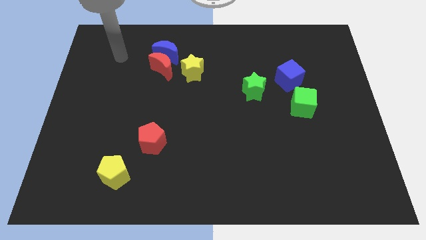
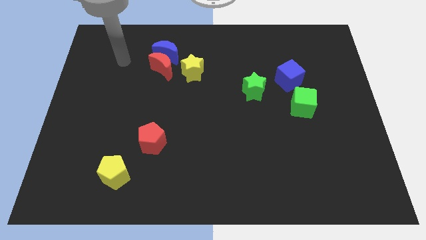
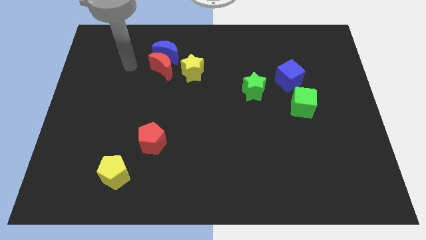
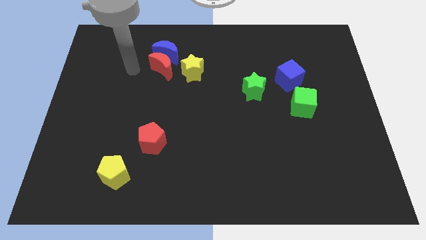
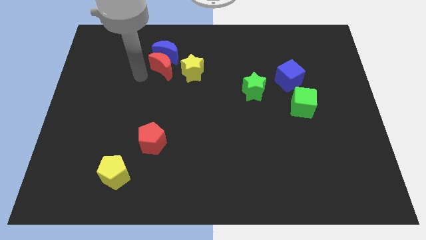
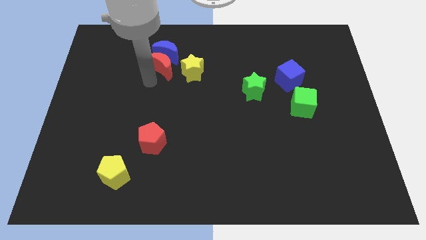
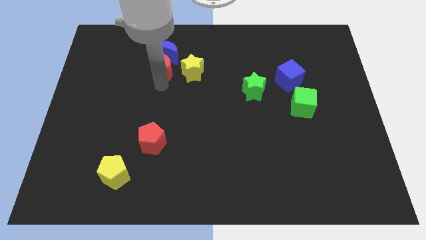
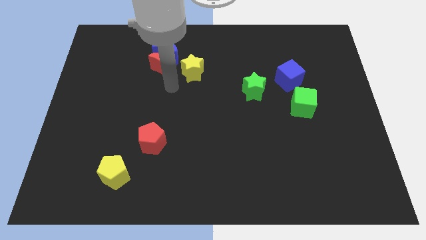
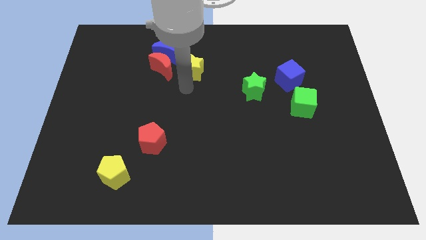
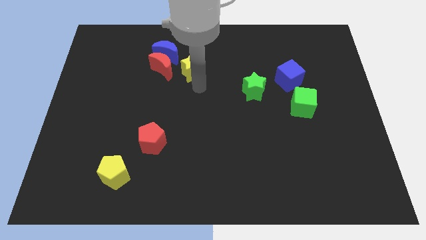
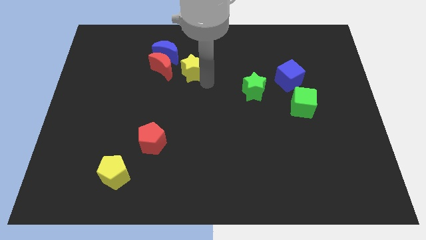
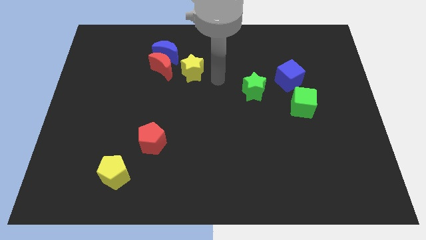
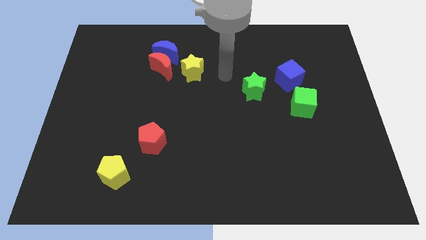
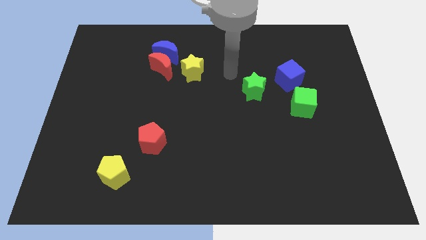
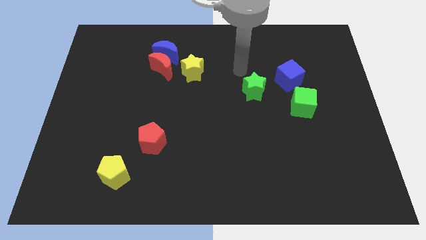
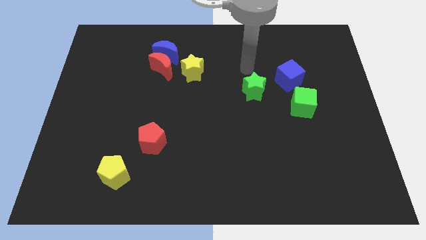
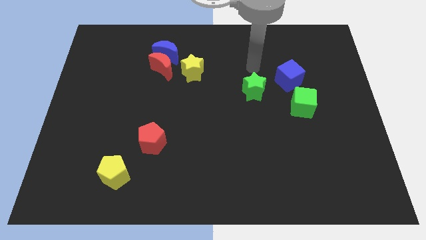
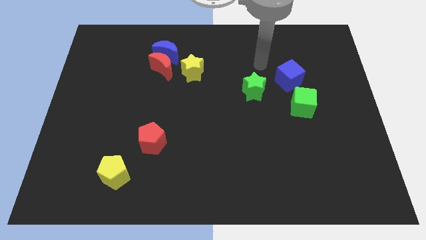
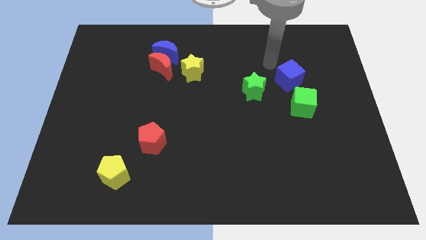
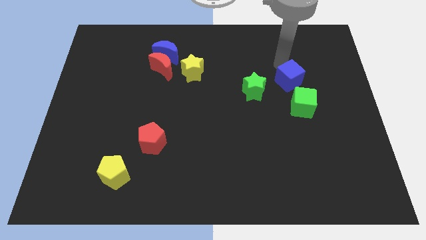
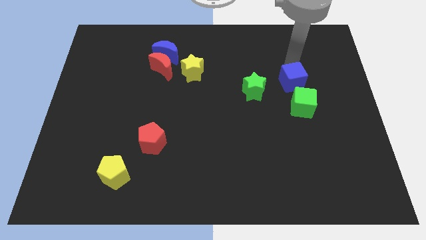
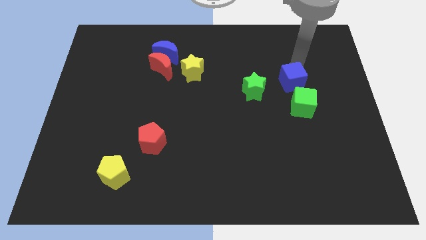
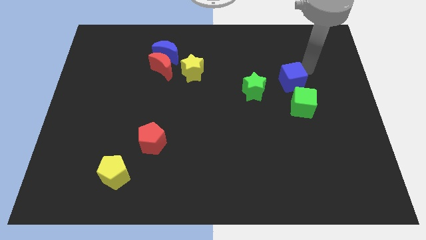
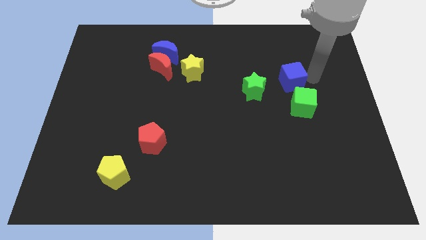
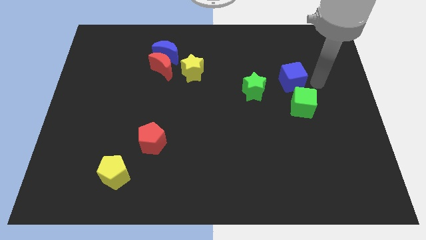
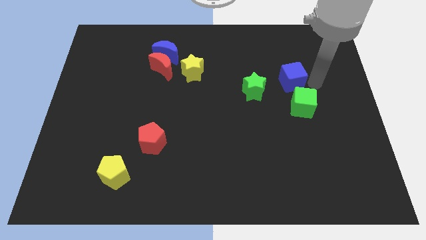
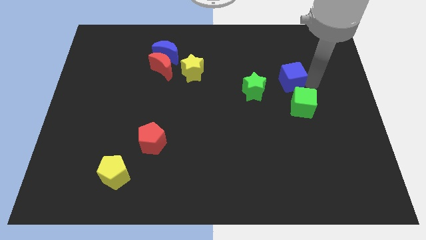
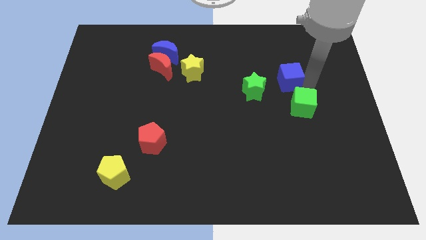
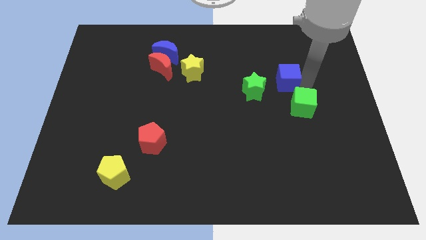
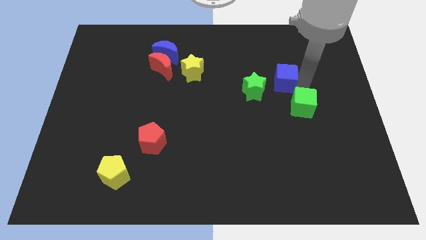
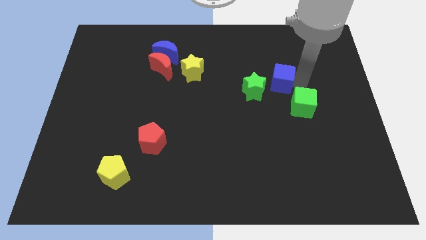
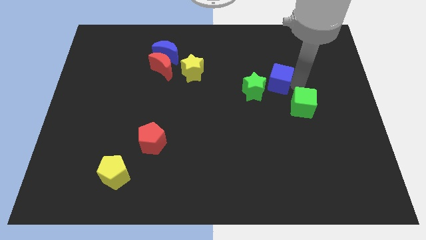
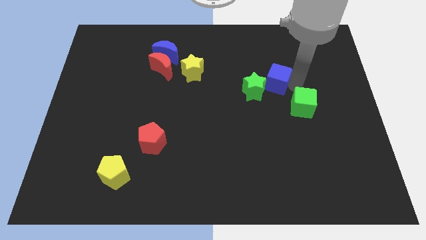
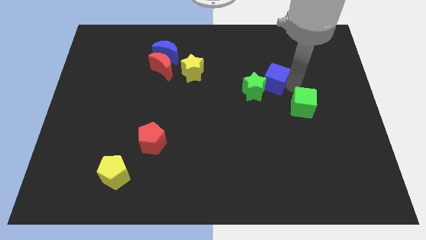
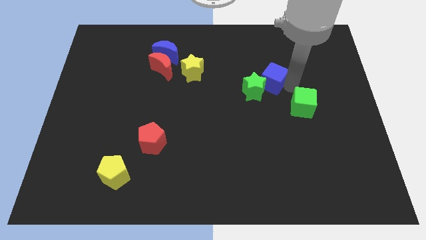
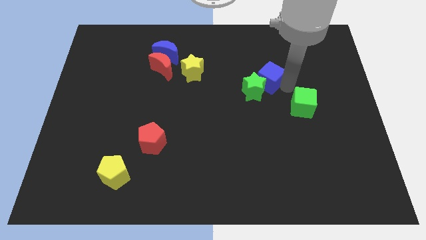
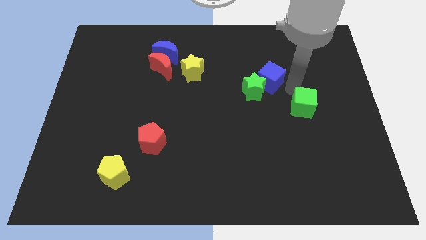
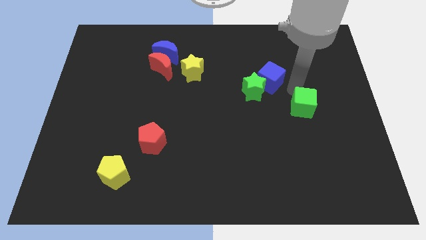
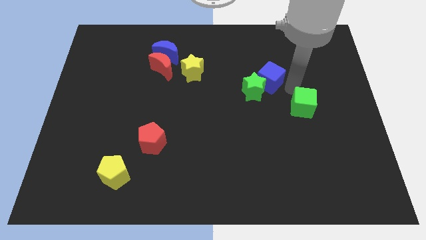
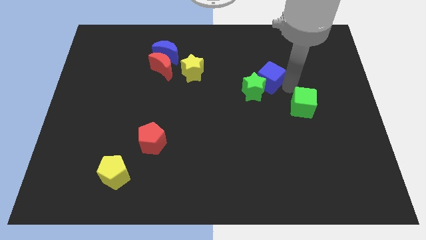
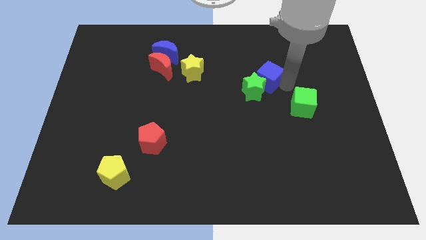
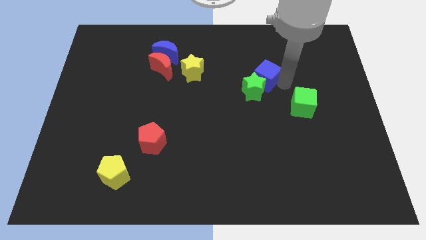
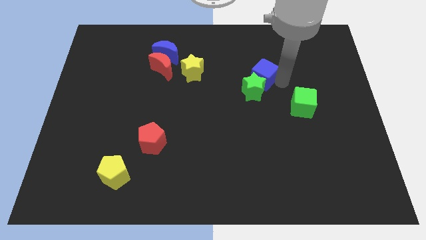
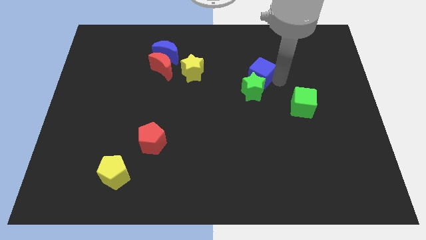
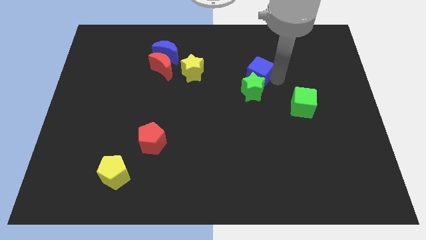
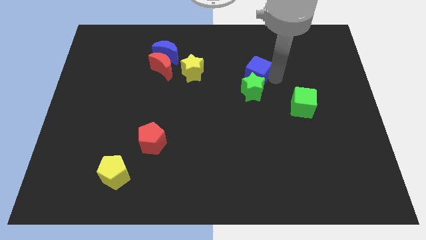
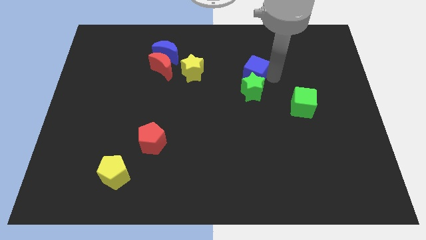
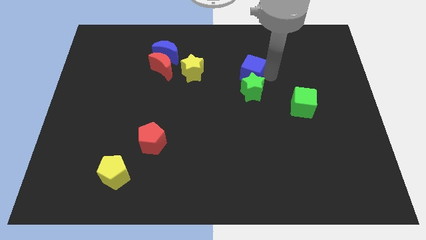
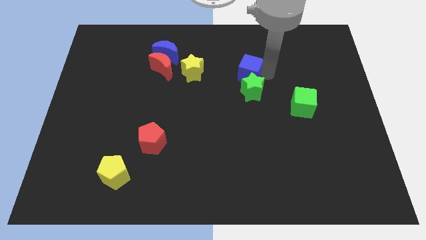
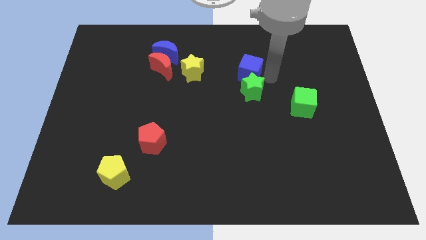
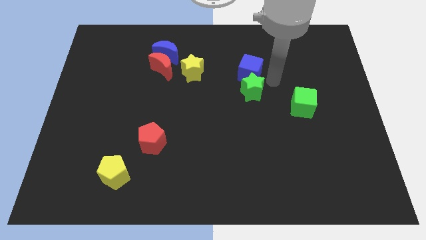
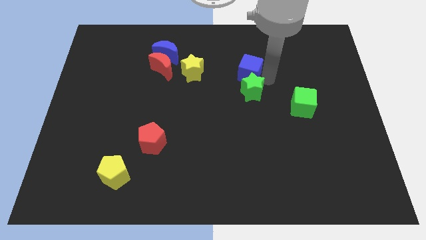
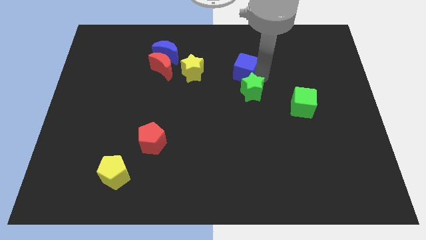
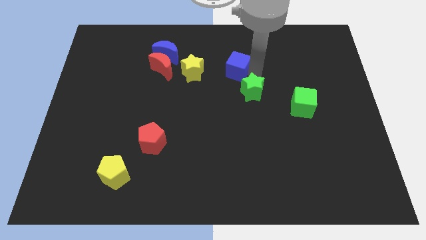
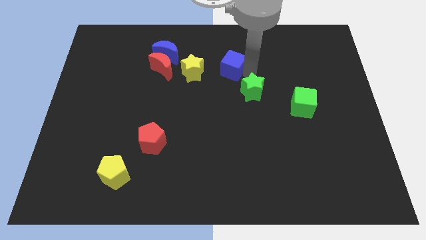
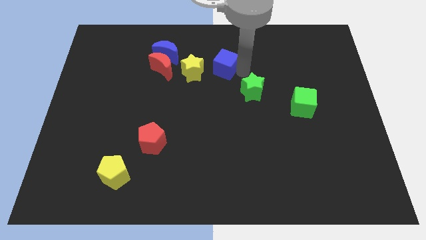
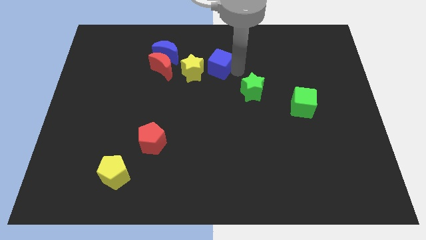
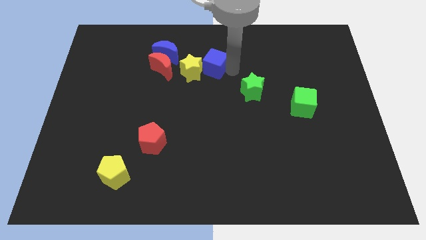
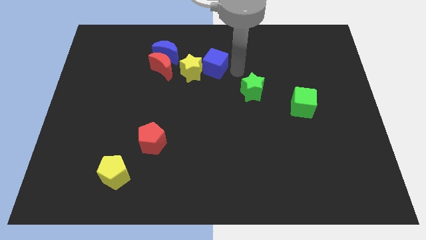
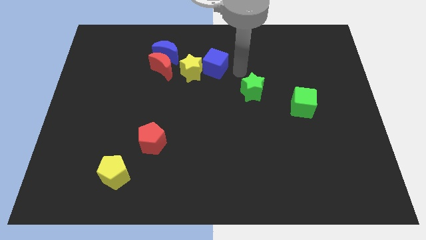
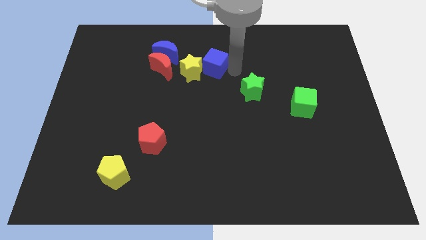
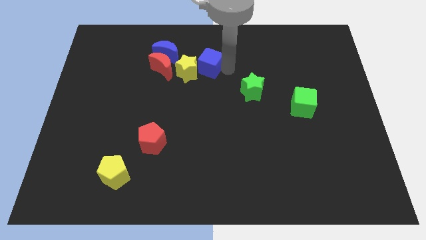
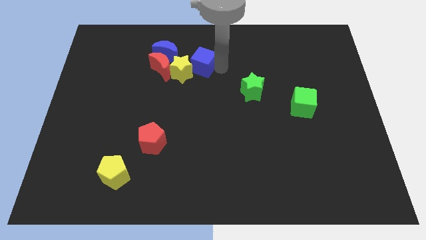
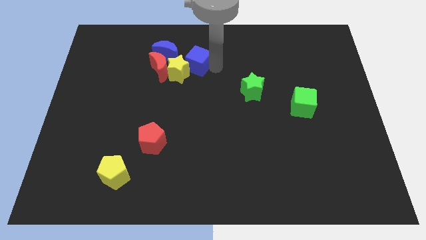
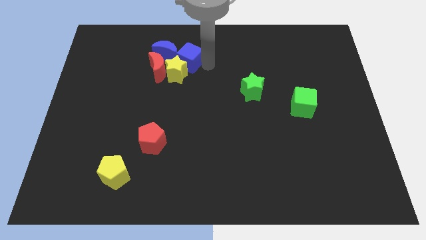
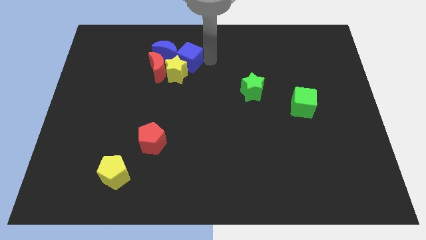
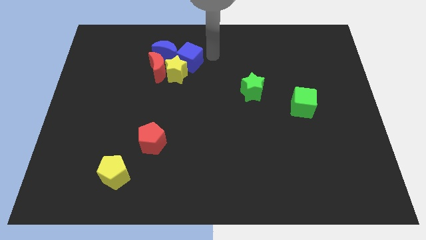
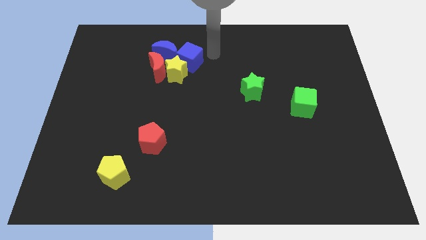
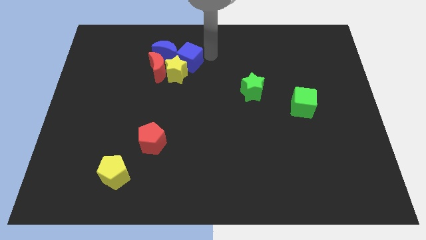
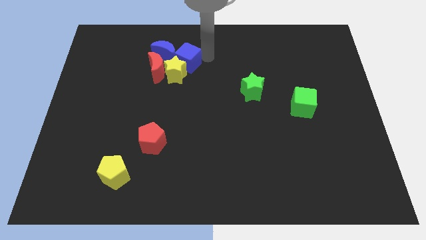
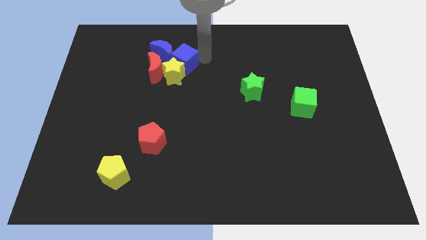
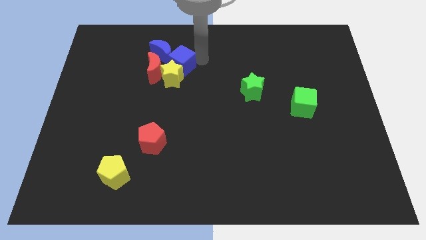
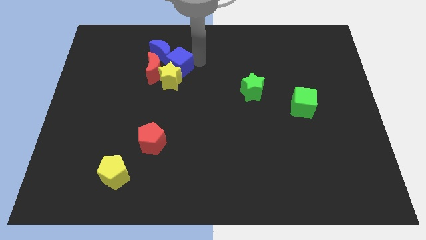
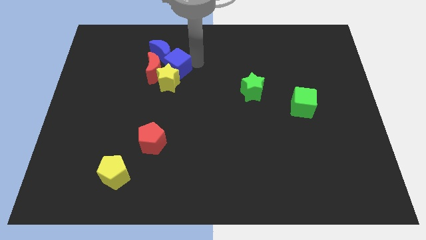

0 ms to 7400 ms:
move the blue cube close to the red moon

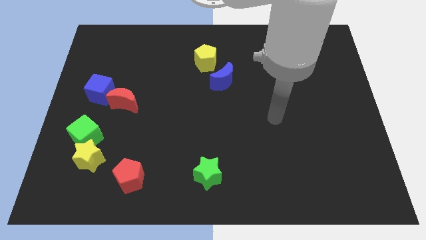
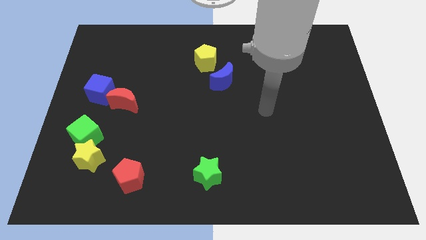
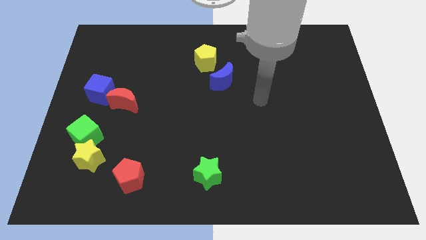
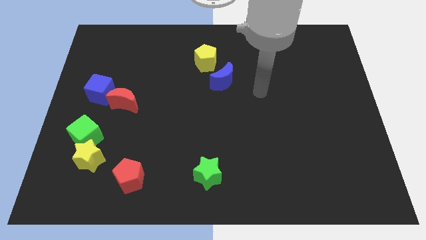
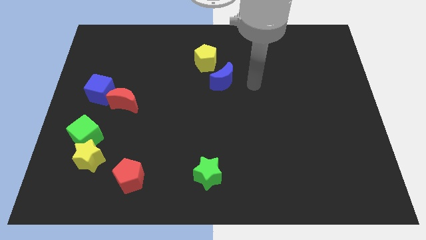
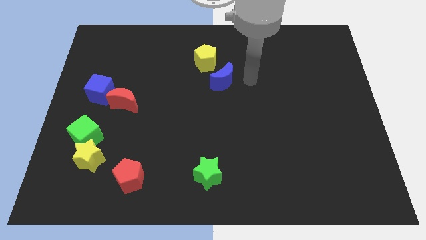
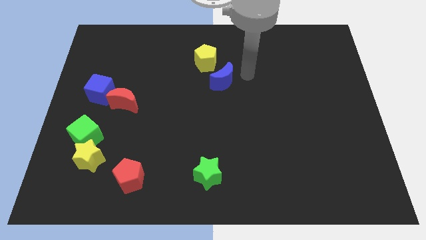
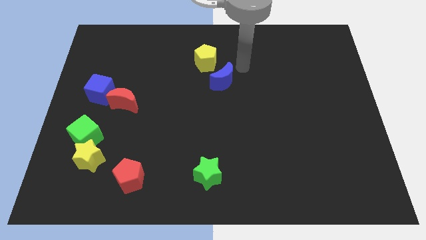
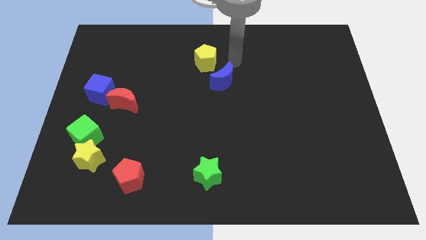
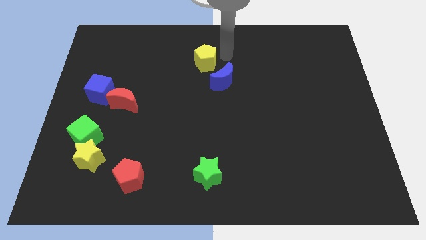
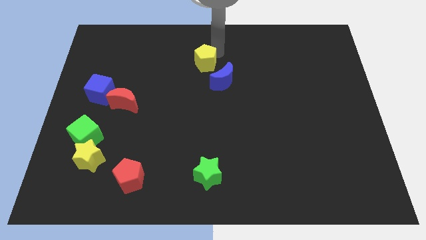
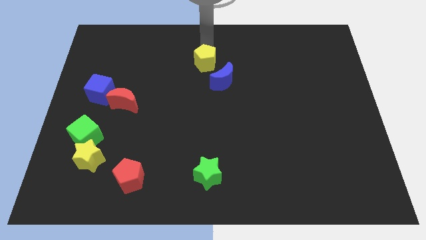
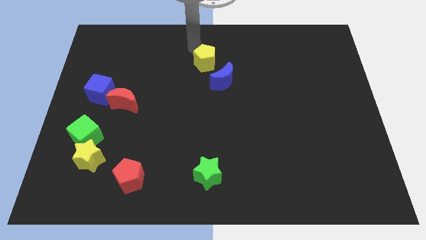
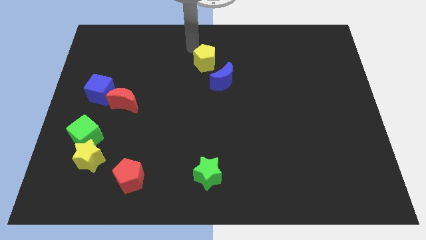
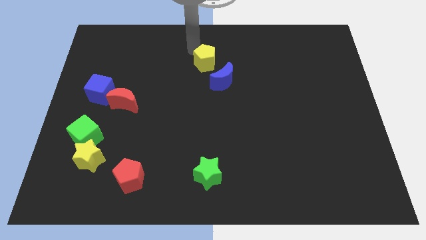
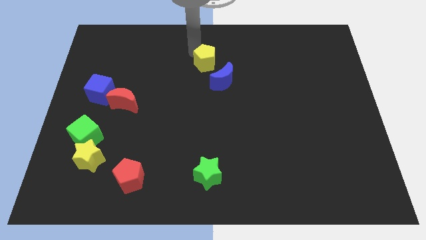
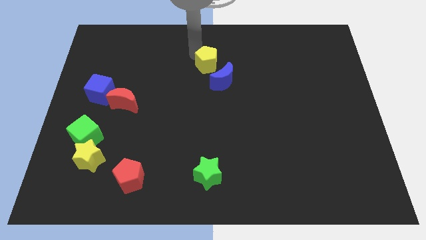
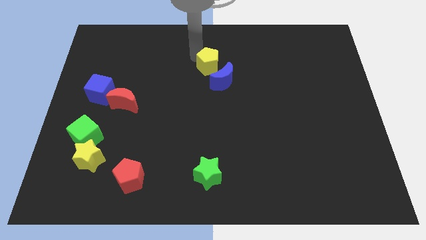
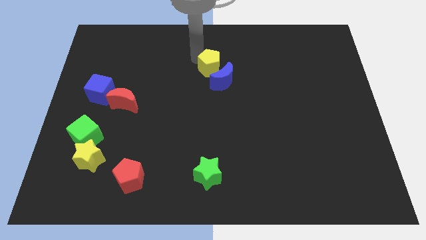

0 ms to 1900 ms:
move the yellow pentagon to the blue moon
